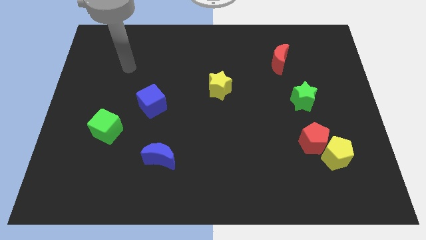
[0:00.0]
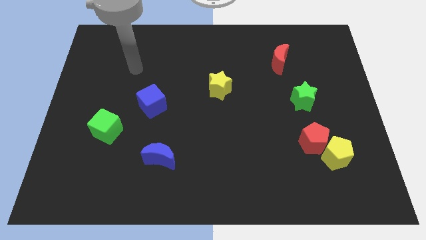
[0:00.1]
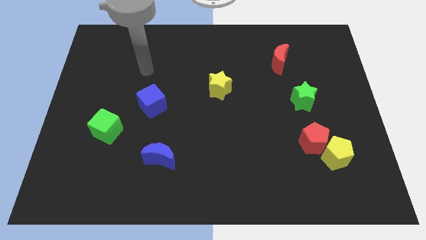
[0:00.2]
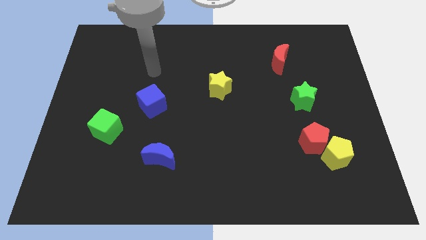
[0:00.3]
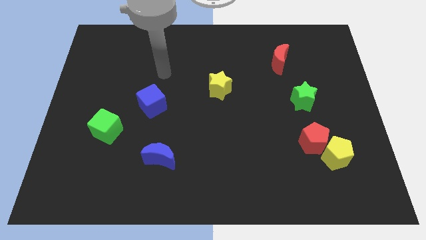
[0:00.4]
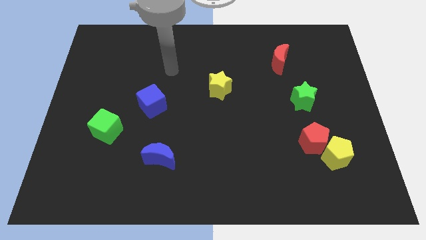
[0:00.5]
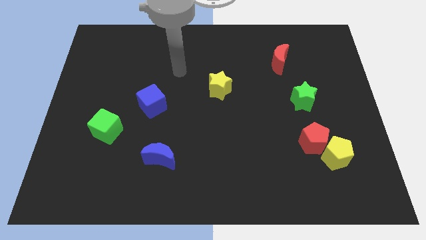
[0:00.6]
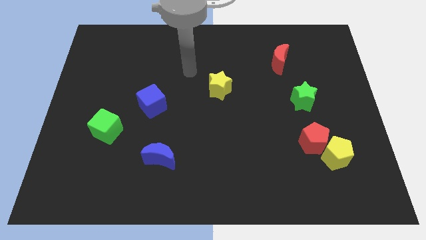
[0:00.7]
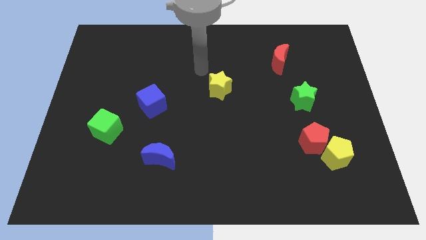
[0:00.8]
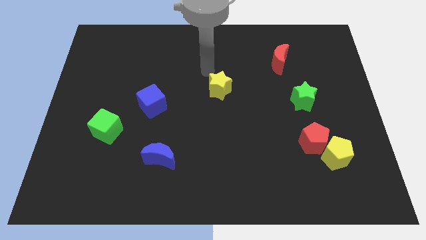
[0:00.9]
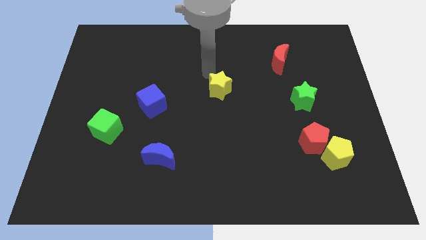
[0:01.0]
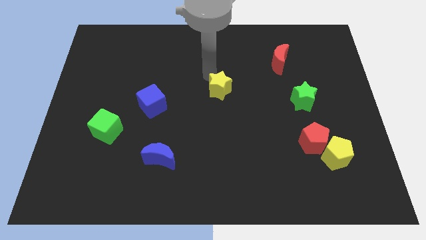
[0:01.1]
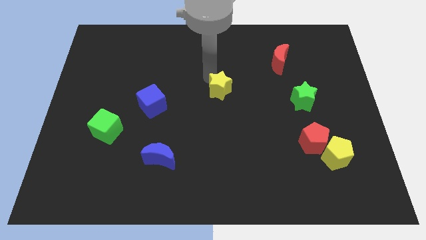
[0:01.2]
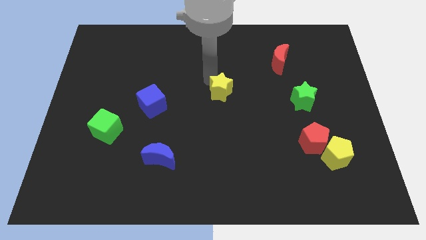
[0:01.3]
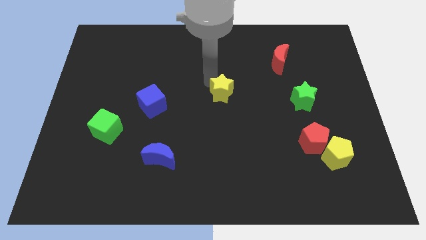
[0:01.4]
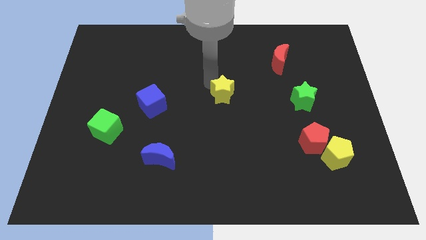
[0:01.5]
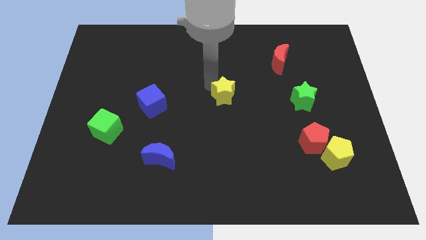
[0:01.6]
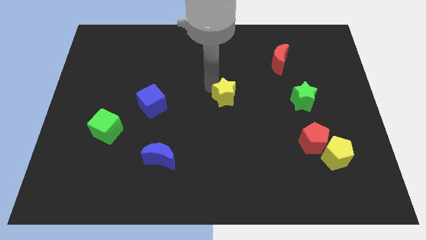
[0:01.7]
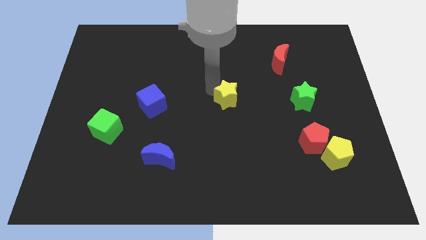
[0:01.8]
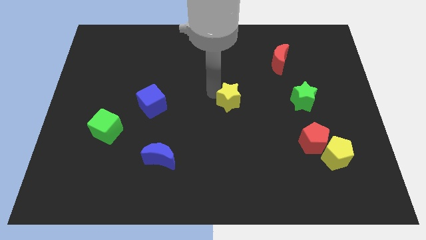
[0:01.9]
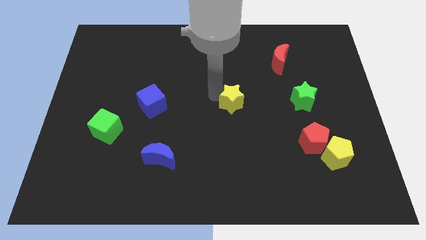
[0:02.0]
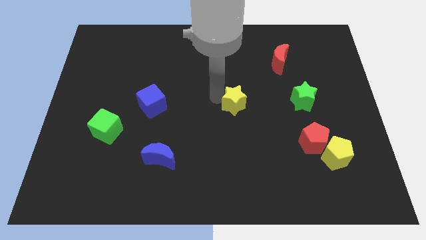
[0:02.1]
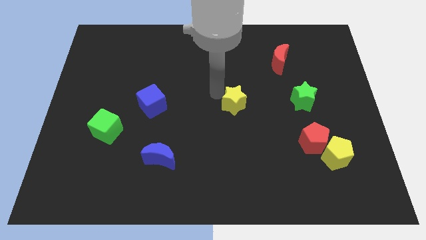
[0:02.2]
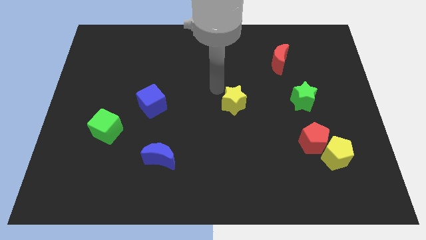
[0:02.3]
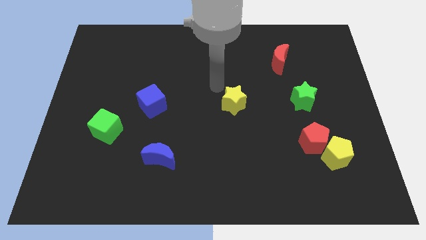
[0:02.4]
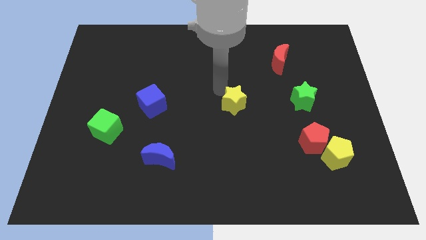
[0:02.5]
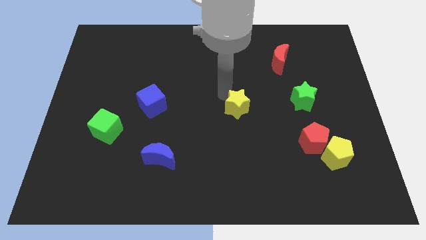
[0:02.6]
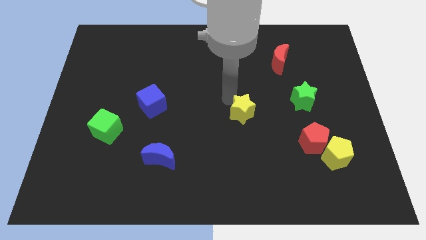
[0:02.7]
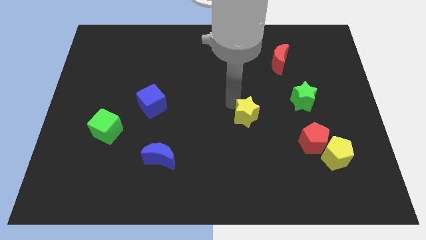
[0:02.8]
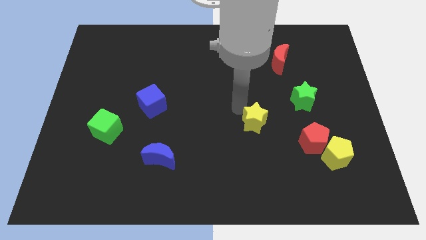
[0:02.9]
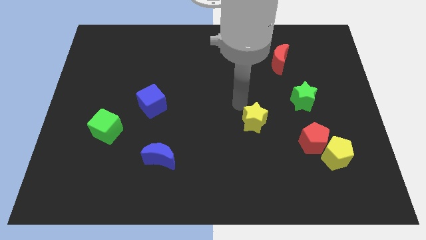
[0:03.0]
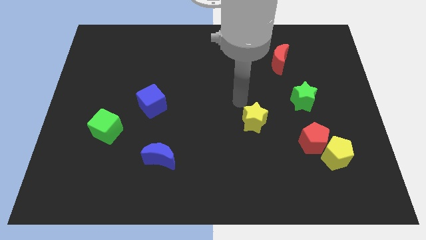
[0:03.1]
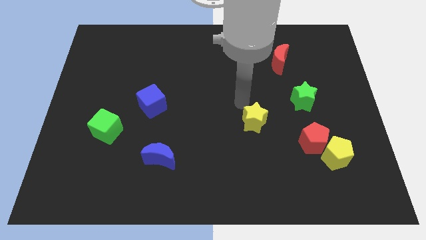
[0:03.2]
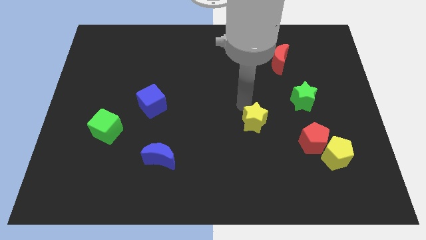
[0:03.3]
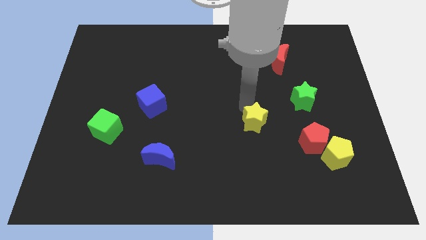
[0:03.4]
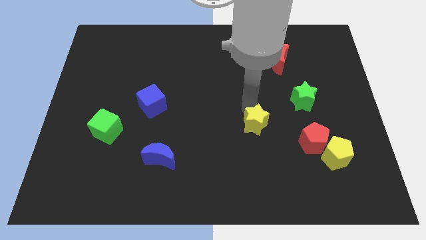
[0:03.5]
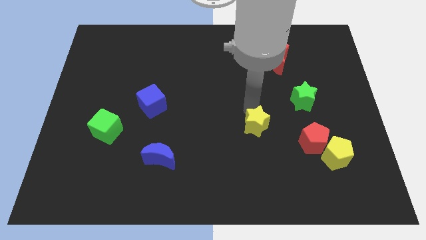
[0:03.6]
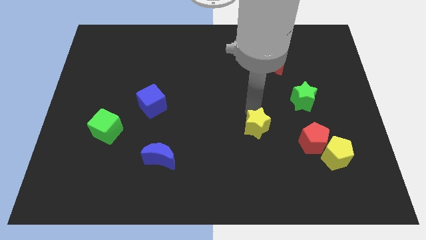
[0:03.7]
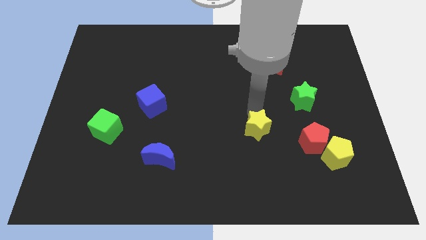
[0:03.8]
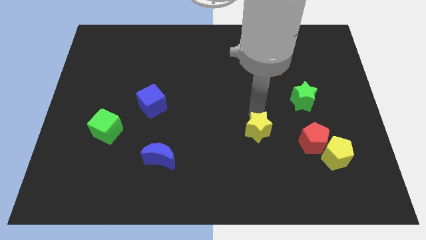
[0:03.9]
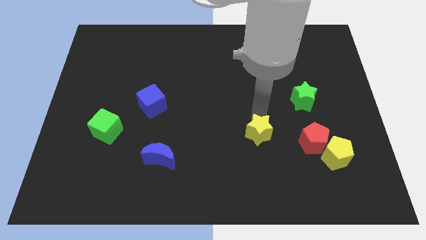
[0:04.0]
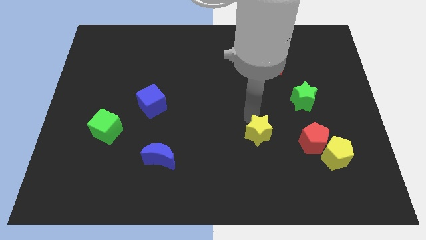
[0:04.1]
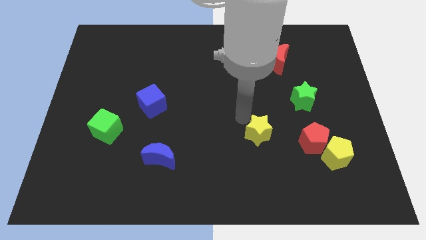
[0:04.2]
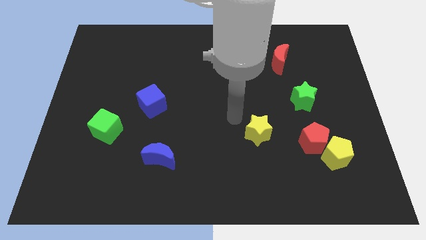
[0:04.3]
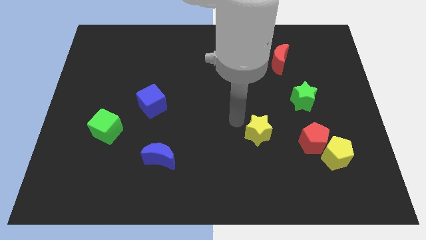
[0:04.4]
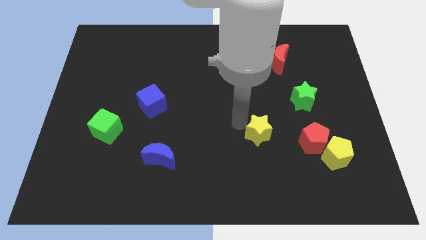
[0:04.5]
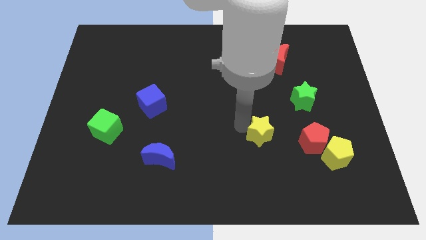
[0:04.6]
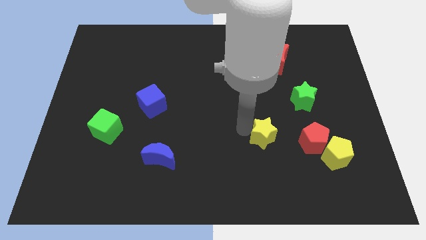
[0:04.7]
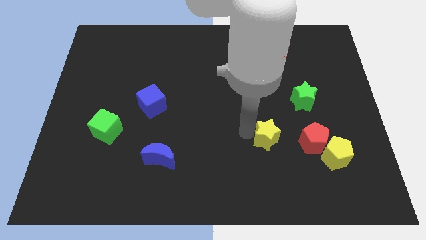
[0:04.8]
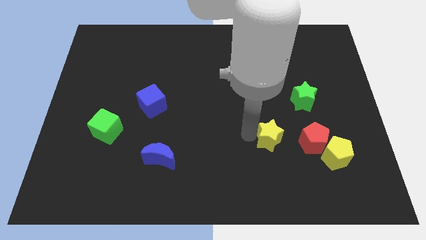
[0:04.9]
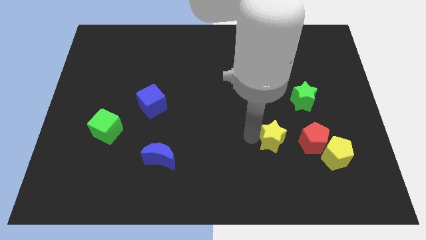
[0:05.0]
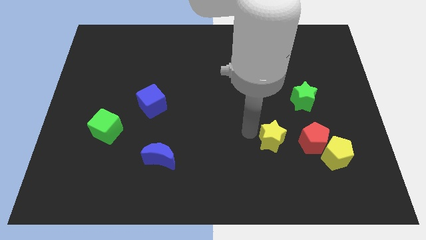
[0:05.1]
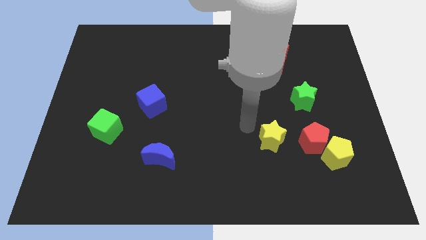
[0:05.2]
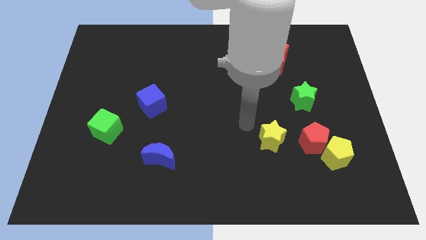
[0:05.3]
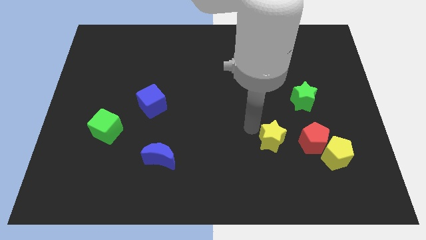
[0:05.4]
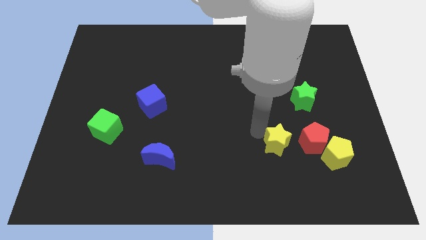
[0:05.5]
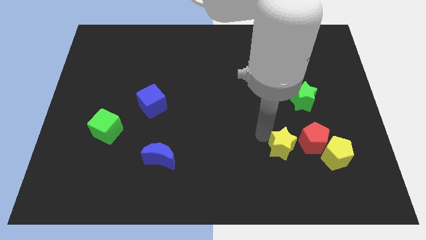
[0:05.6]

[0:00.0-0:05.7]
move the yellow star down and right diagonally

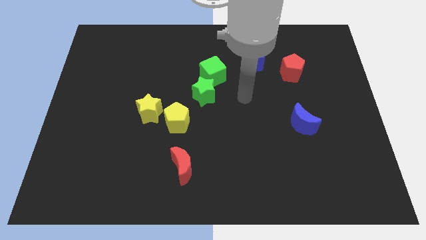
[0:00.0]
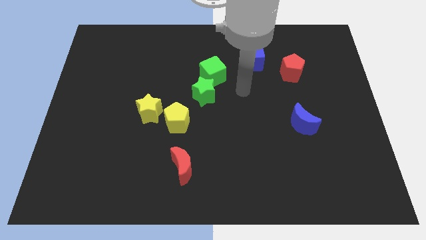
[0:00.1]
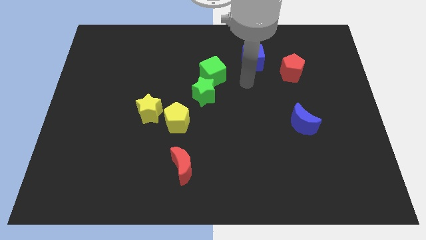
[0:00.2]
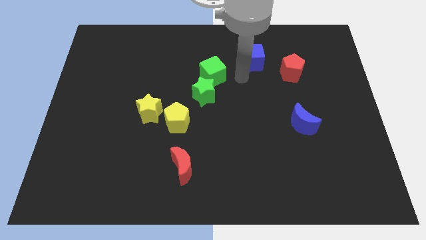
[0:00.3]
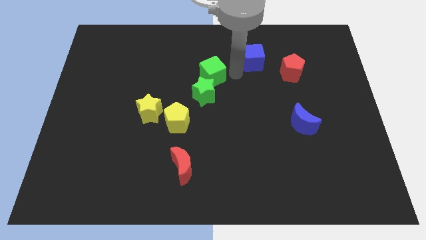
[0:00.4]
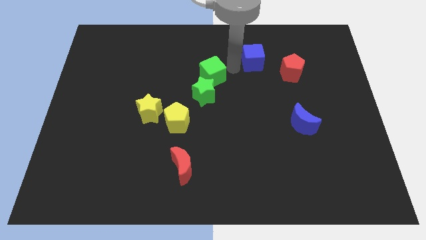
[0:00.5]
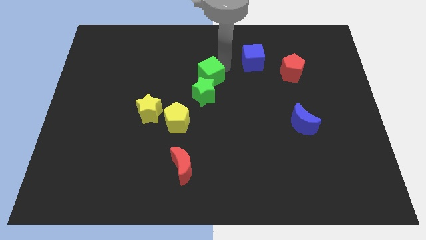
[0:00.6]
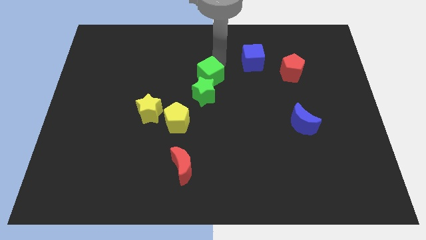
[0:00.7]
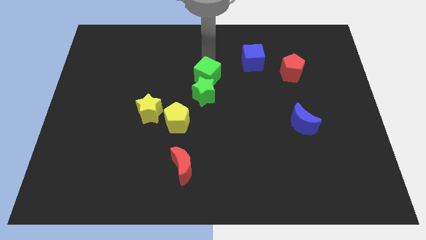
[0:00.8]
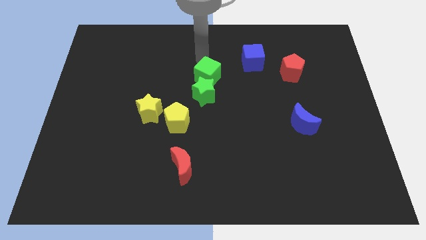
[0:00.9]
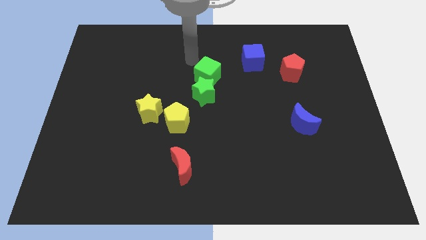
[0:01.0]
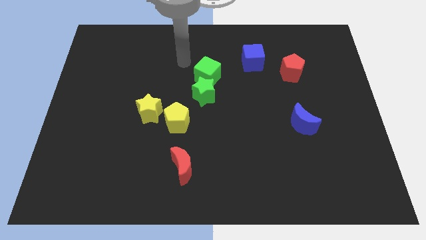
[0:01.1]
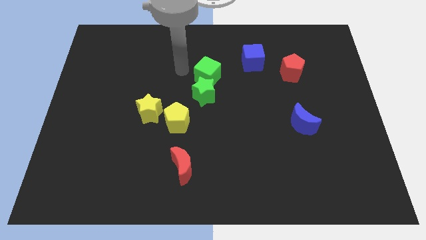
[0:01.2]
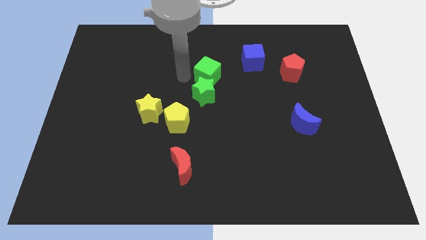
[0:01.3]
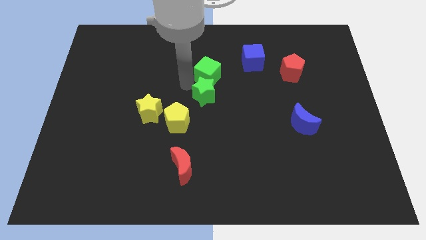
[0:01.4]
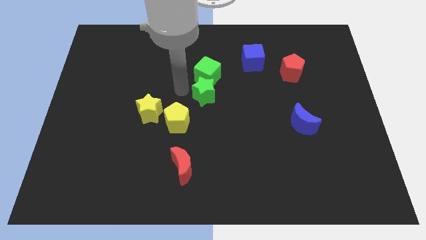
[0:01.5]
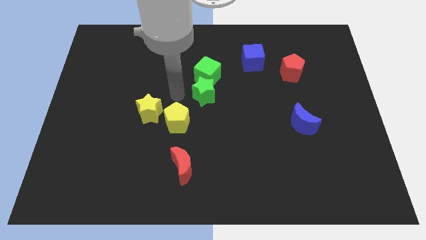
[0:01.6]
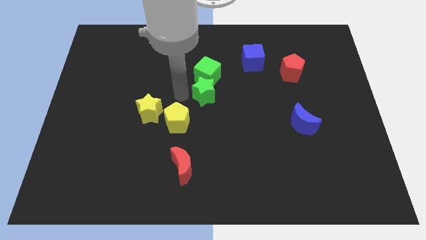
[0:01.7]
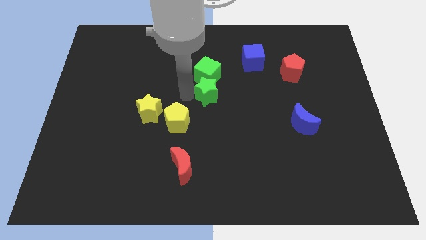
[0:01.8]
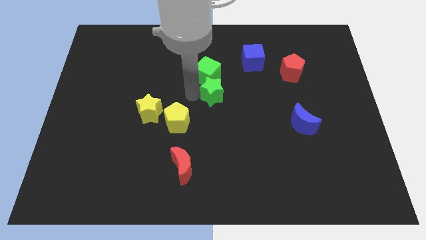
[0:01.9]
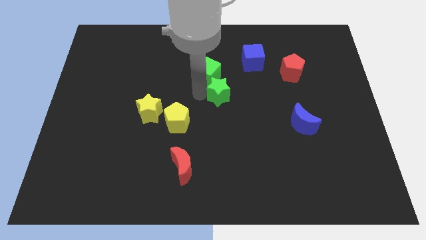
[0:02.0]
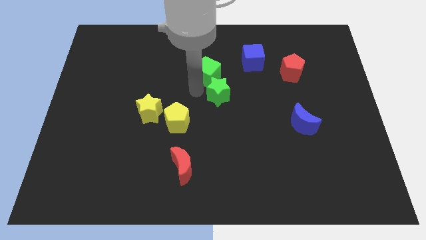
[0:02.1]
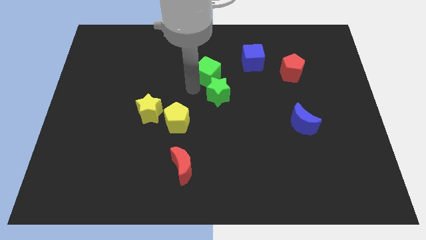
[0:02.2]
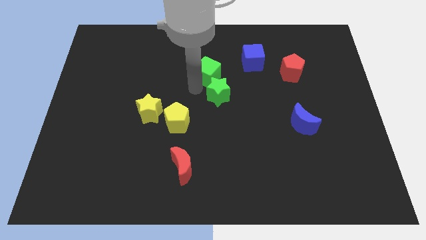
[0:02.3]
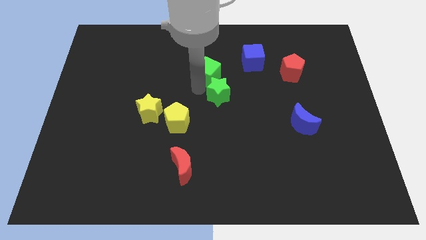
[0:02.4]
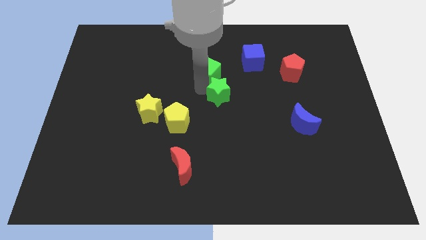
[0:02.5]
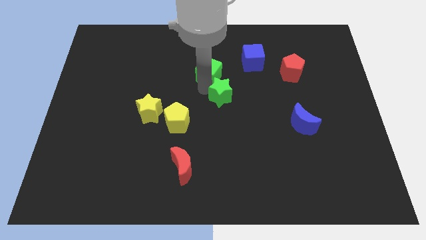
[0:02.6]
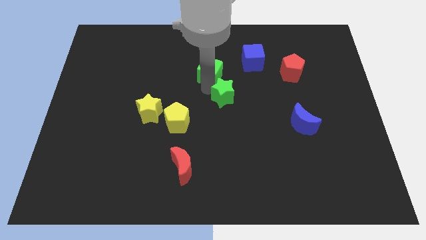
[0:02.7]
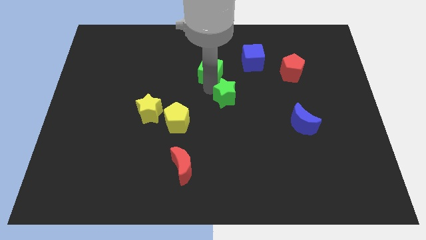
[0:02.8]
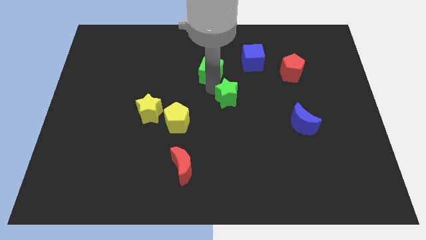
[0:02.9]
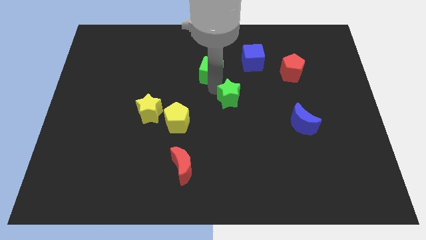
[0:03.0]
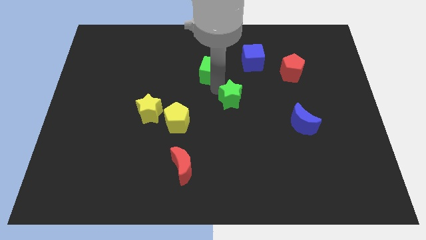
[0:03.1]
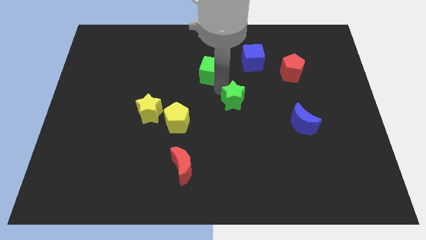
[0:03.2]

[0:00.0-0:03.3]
slightly slide the green star to the right
